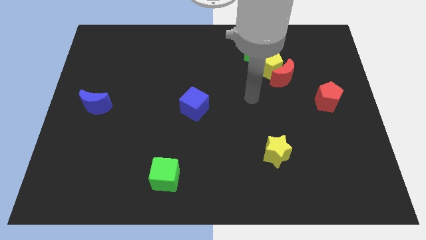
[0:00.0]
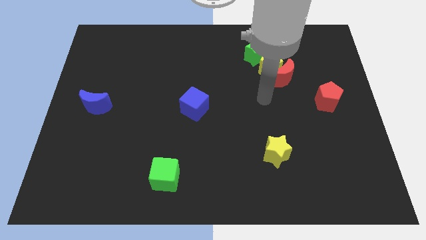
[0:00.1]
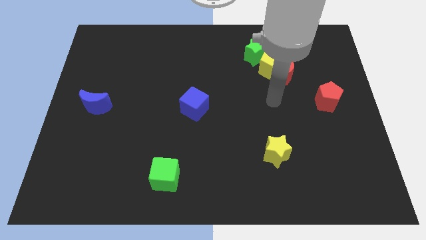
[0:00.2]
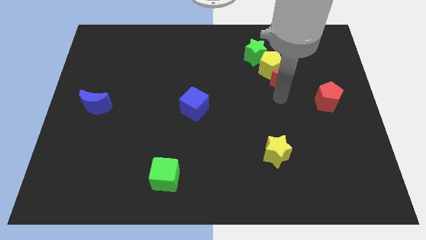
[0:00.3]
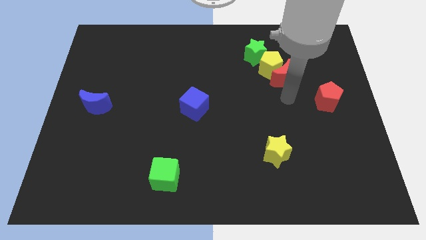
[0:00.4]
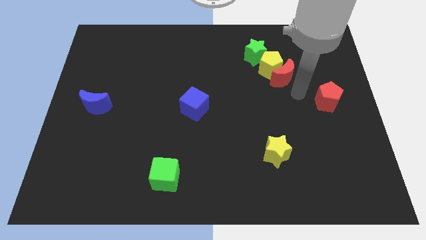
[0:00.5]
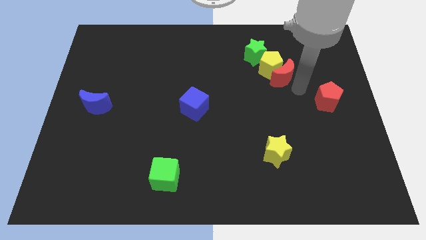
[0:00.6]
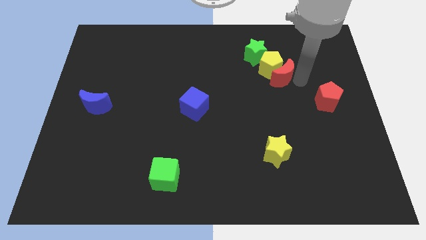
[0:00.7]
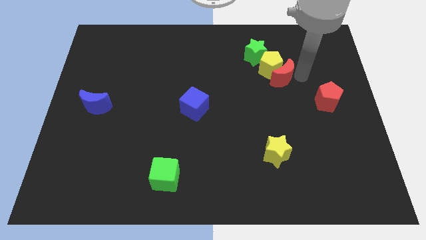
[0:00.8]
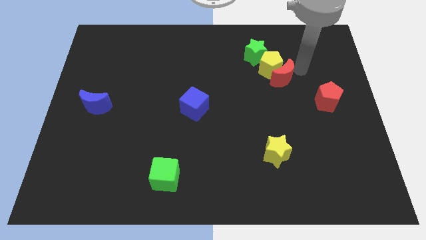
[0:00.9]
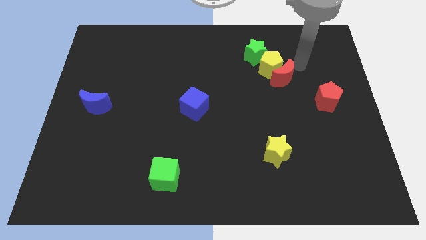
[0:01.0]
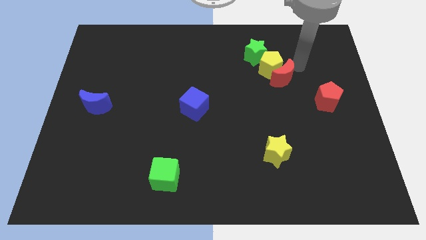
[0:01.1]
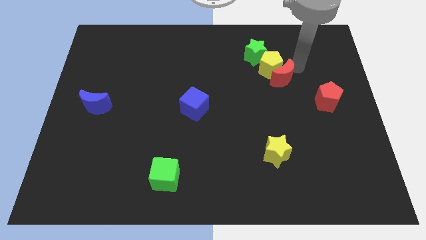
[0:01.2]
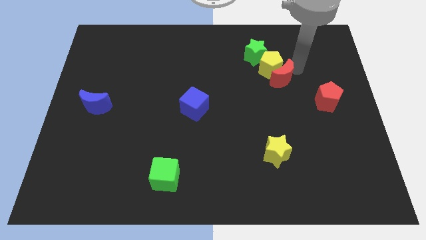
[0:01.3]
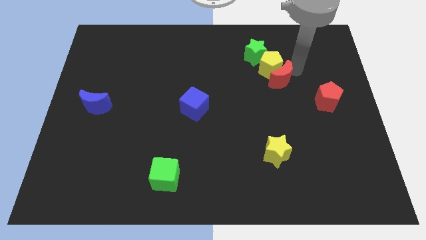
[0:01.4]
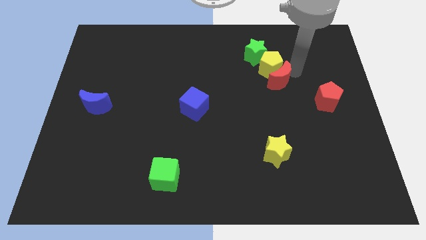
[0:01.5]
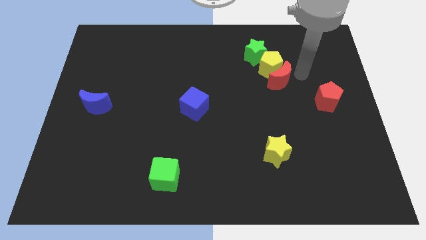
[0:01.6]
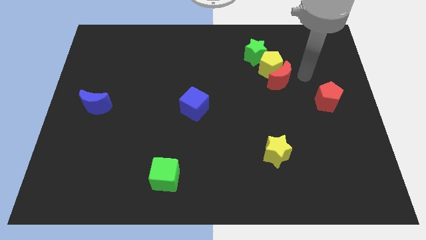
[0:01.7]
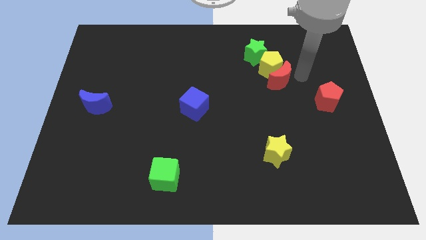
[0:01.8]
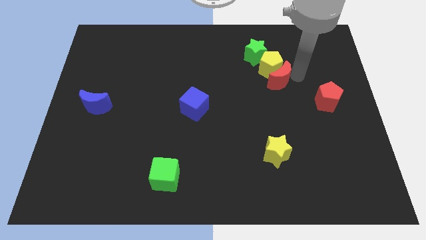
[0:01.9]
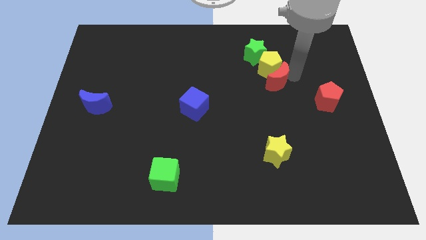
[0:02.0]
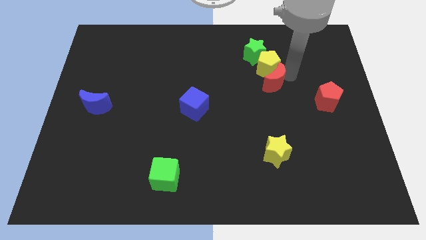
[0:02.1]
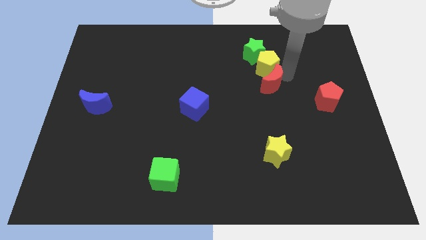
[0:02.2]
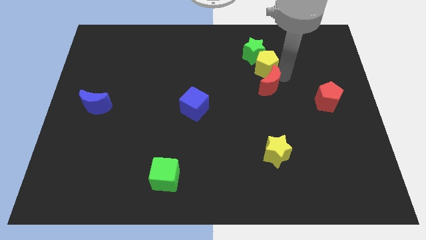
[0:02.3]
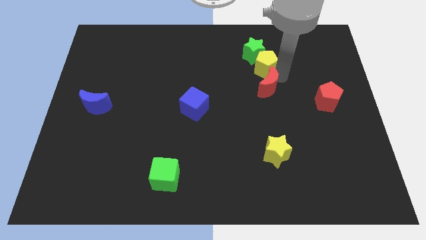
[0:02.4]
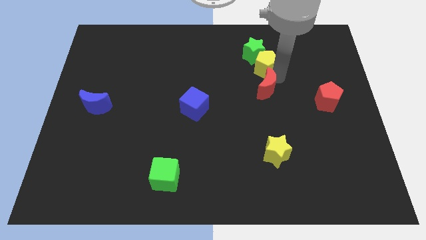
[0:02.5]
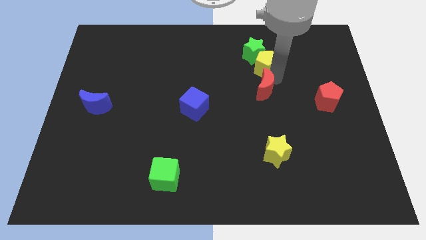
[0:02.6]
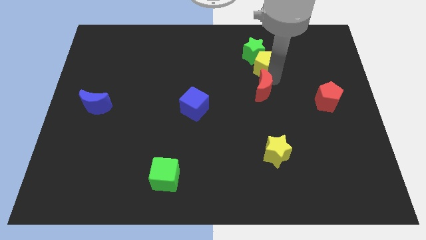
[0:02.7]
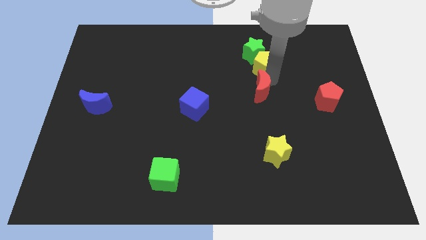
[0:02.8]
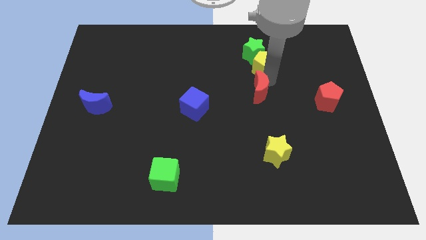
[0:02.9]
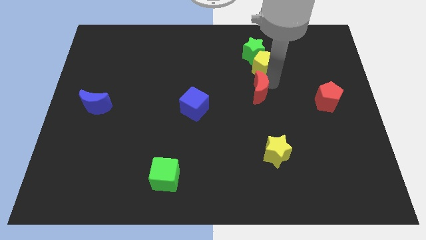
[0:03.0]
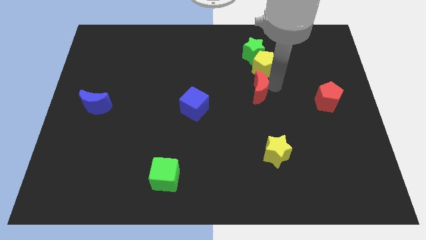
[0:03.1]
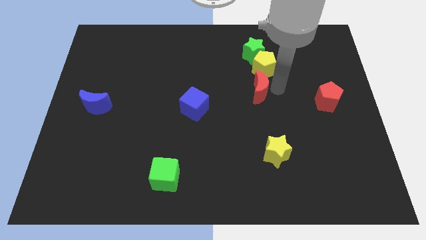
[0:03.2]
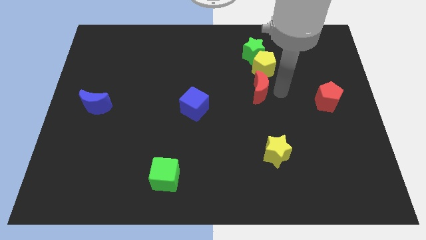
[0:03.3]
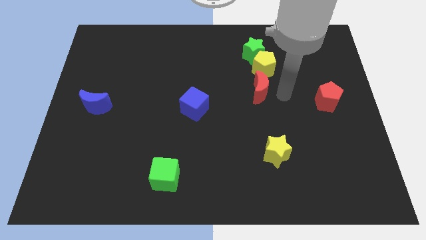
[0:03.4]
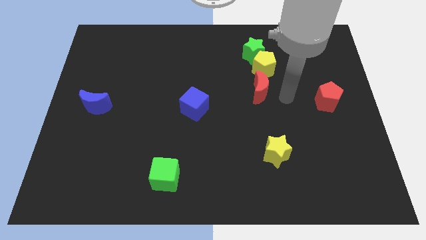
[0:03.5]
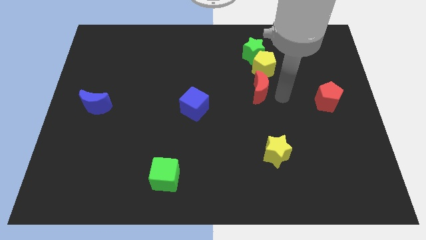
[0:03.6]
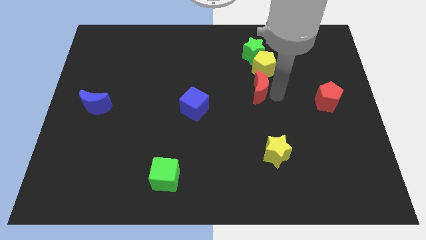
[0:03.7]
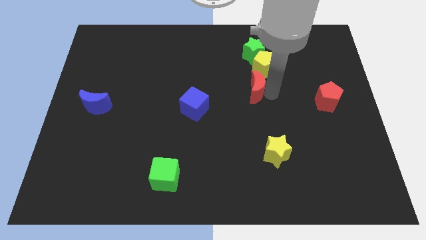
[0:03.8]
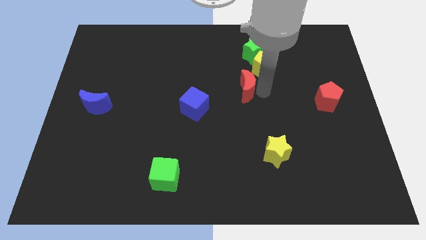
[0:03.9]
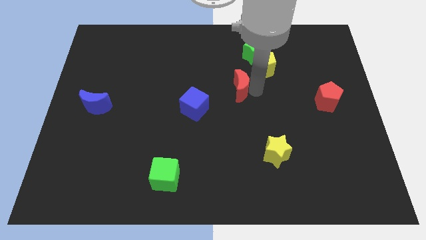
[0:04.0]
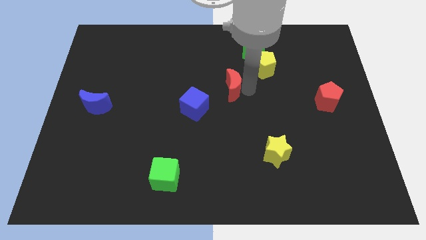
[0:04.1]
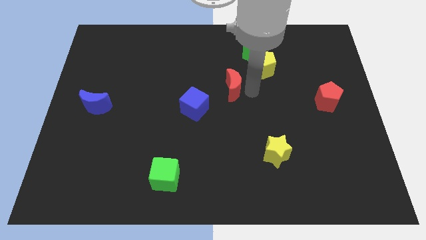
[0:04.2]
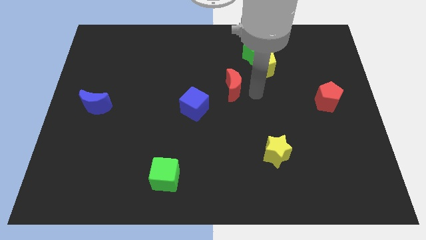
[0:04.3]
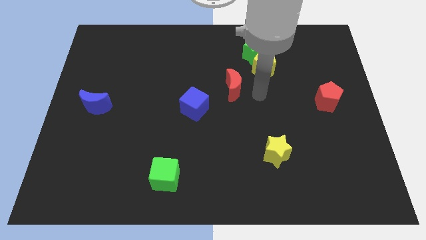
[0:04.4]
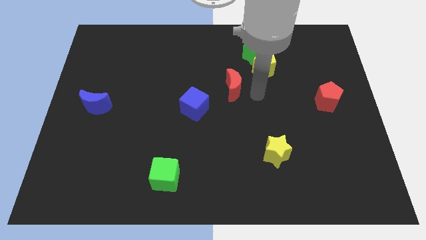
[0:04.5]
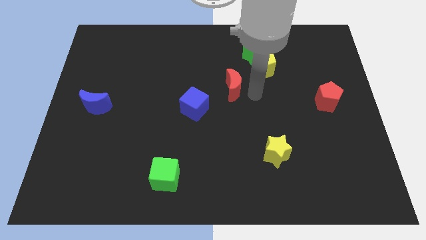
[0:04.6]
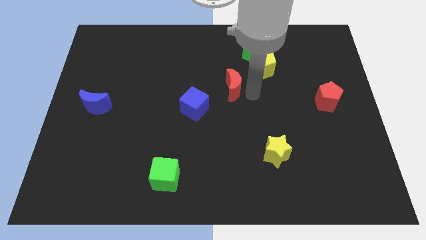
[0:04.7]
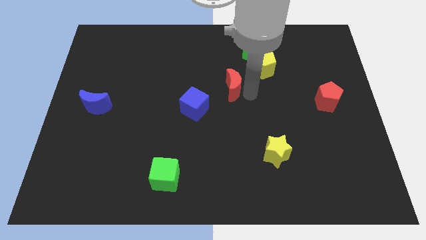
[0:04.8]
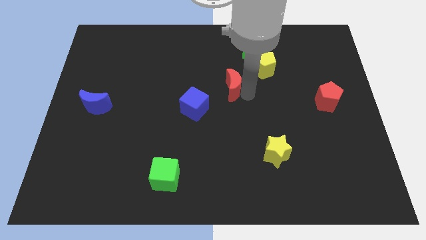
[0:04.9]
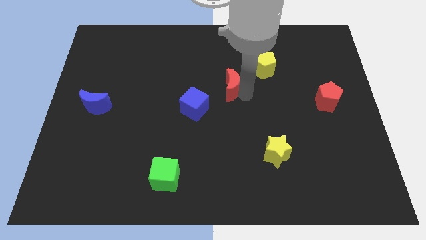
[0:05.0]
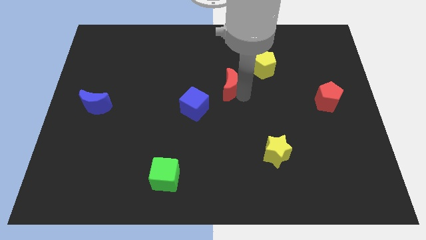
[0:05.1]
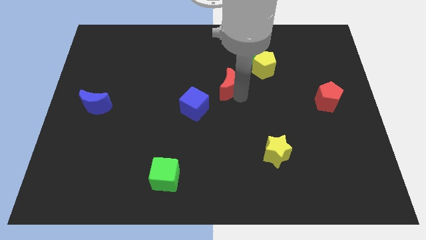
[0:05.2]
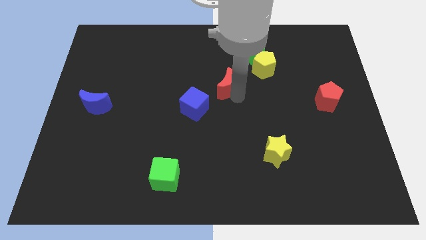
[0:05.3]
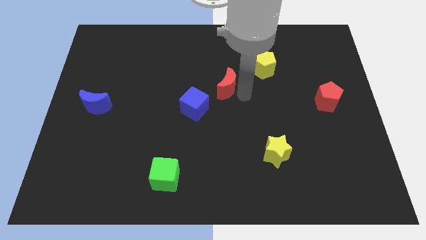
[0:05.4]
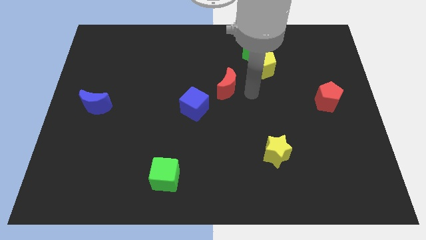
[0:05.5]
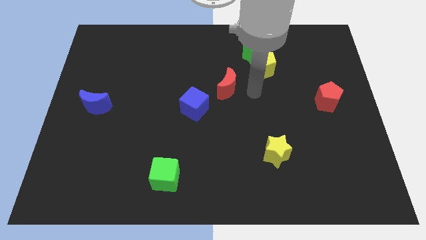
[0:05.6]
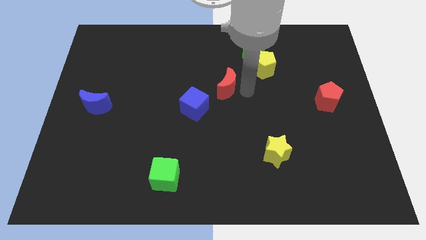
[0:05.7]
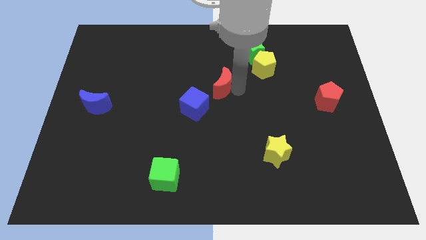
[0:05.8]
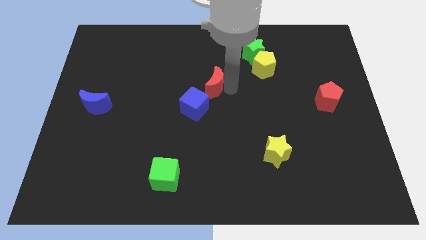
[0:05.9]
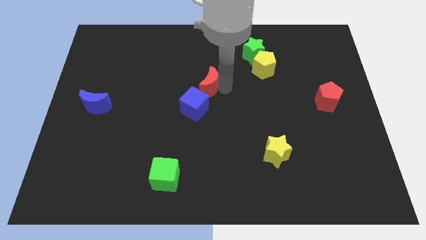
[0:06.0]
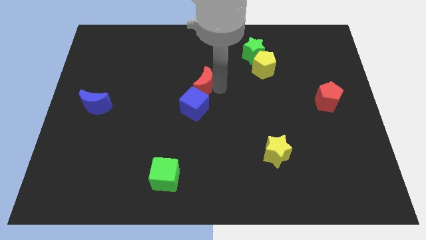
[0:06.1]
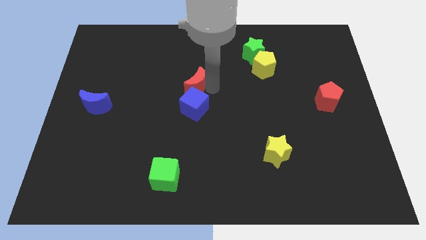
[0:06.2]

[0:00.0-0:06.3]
move the red moon to the left

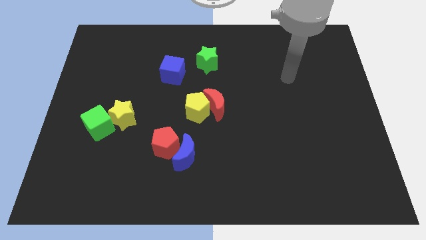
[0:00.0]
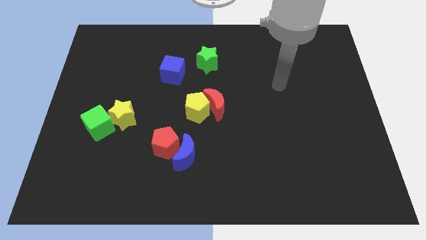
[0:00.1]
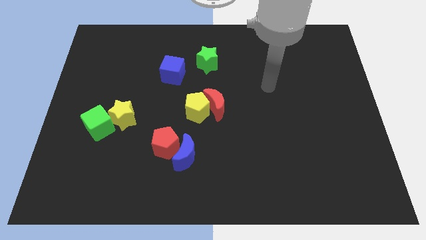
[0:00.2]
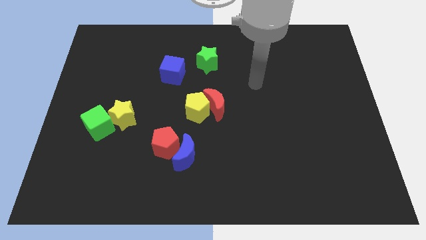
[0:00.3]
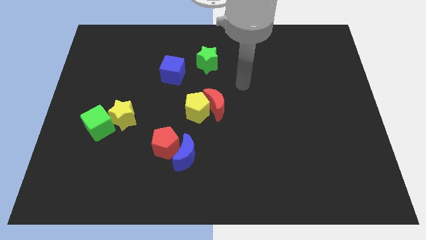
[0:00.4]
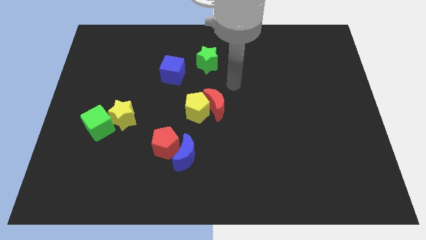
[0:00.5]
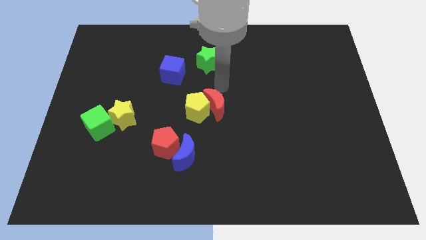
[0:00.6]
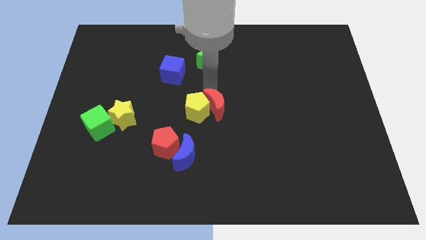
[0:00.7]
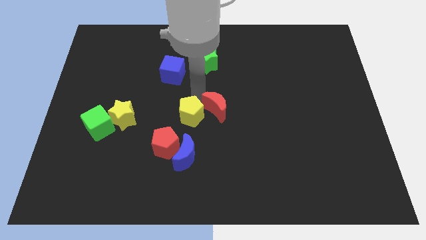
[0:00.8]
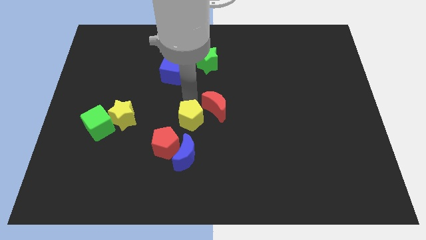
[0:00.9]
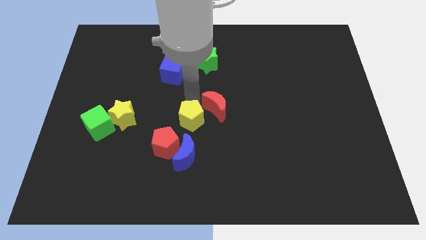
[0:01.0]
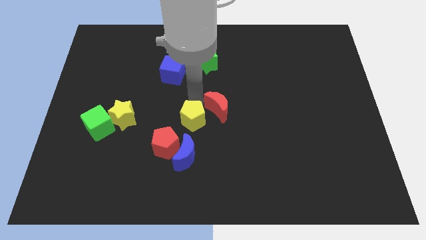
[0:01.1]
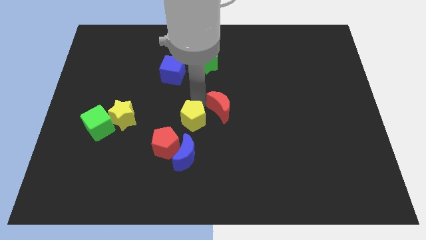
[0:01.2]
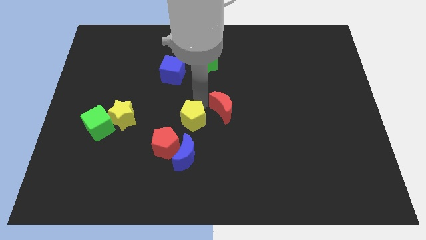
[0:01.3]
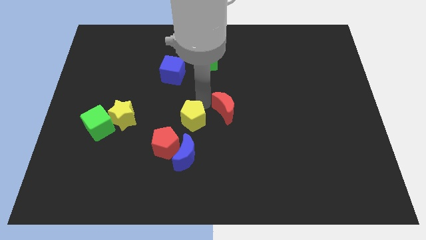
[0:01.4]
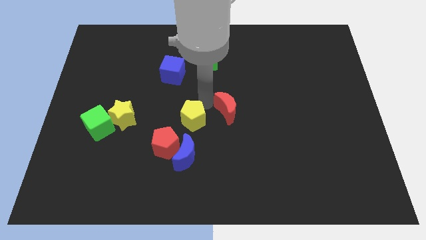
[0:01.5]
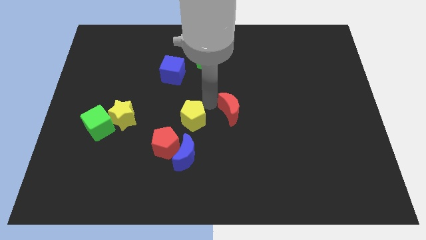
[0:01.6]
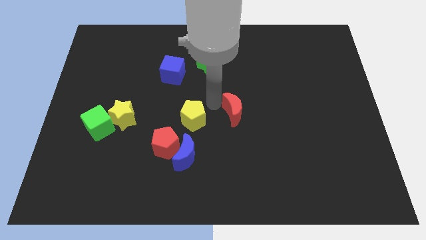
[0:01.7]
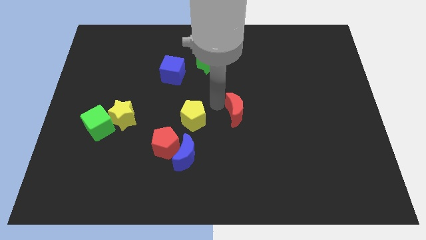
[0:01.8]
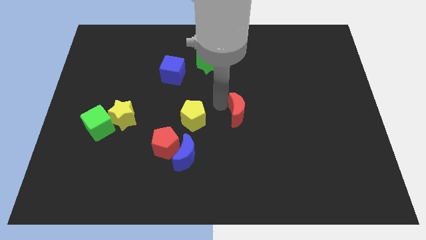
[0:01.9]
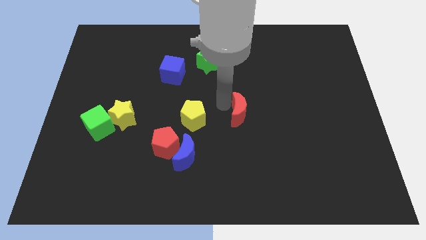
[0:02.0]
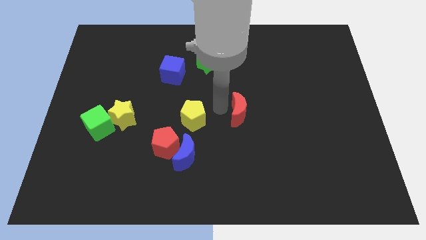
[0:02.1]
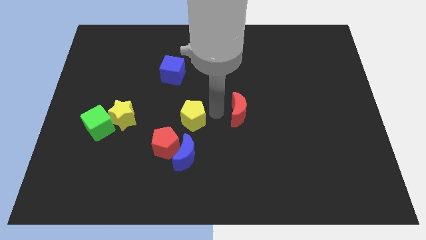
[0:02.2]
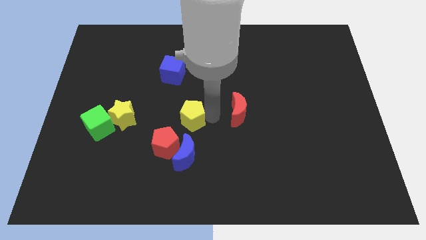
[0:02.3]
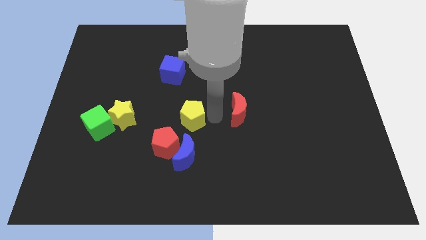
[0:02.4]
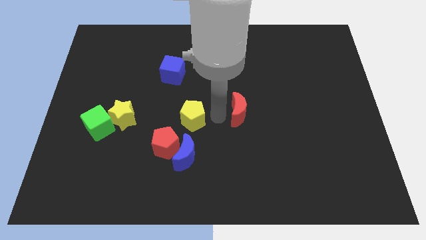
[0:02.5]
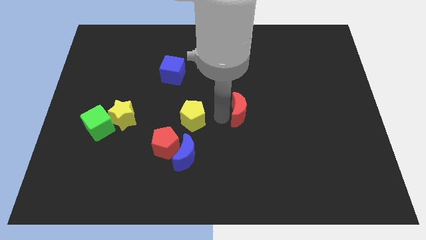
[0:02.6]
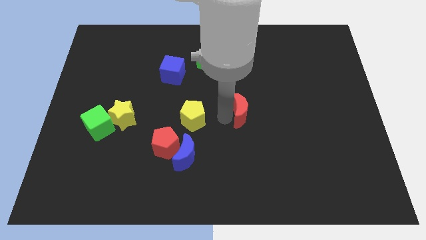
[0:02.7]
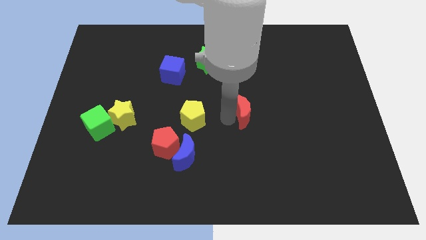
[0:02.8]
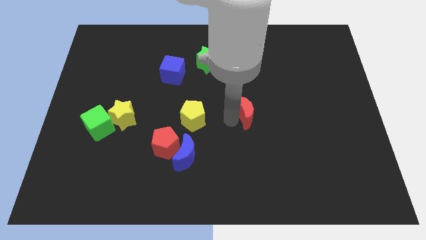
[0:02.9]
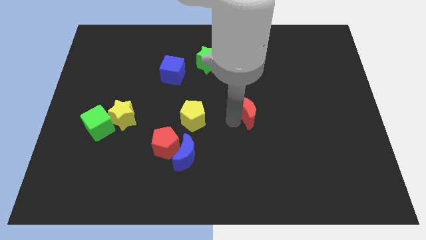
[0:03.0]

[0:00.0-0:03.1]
slightly slide the red moon to the right
